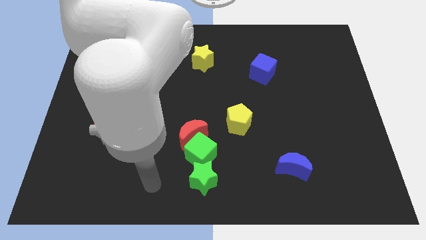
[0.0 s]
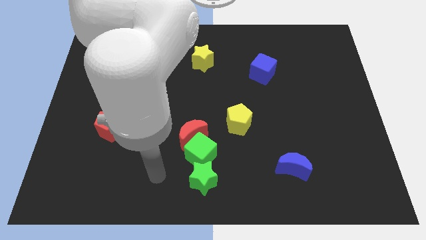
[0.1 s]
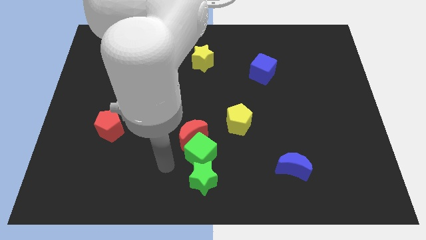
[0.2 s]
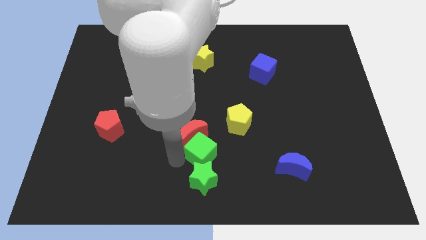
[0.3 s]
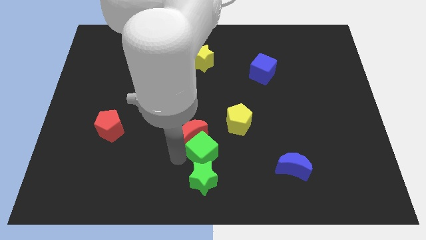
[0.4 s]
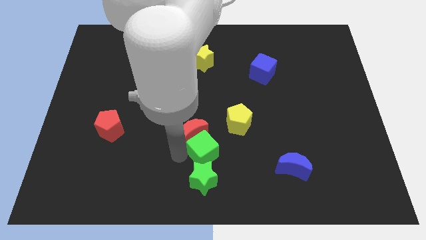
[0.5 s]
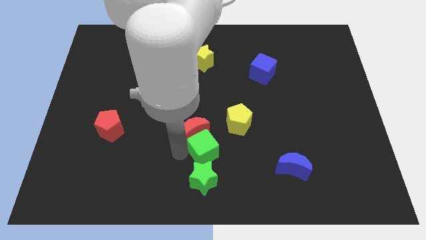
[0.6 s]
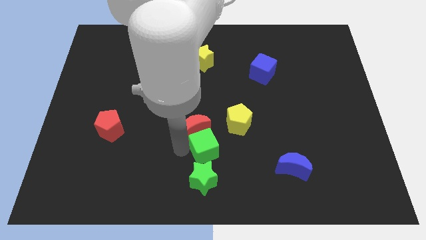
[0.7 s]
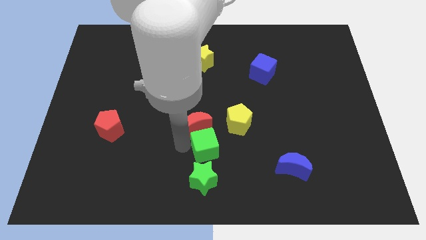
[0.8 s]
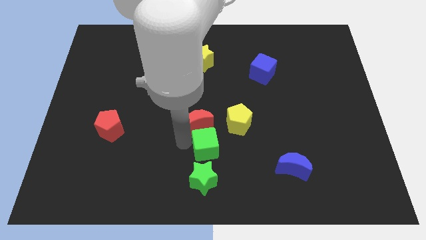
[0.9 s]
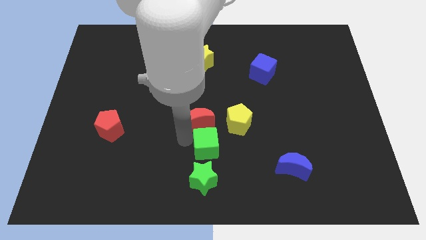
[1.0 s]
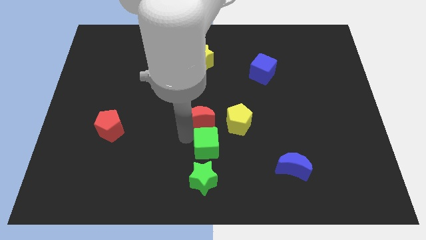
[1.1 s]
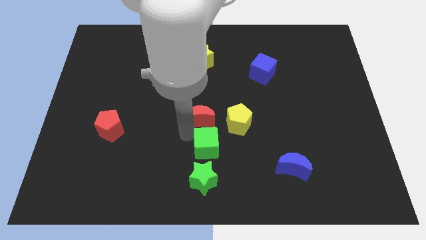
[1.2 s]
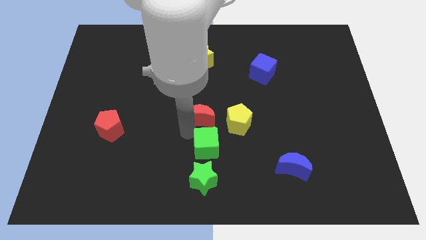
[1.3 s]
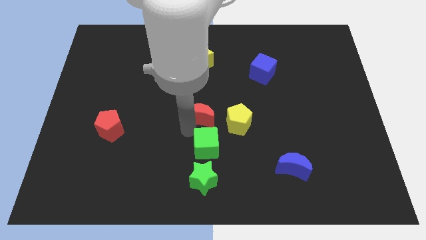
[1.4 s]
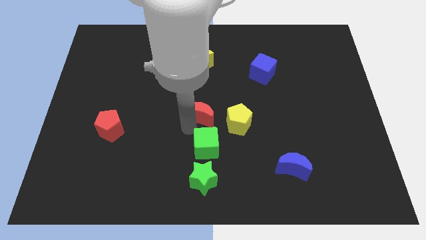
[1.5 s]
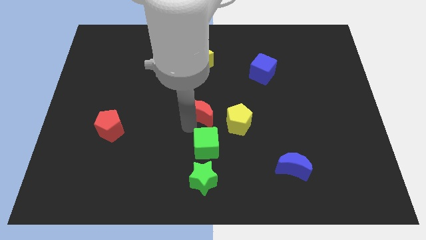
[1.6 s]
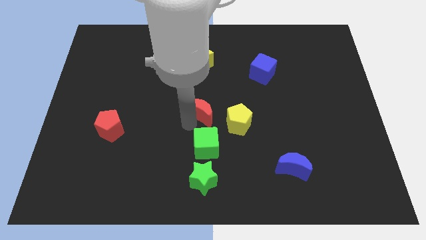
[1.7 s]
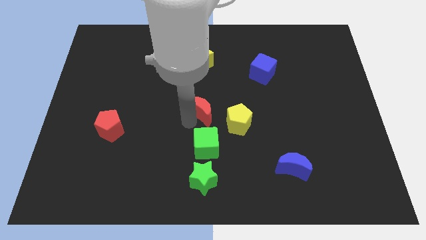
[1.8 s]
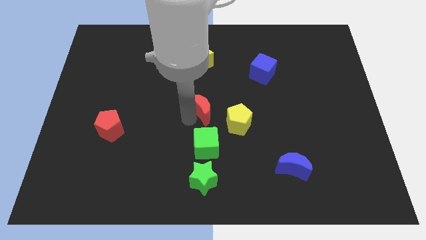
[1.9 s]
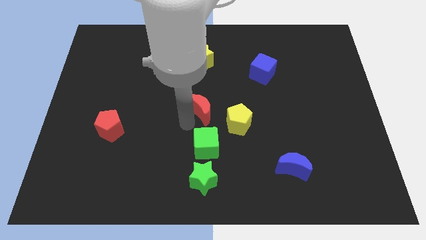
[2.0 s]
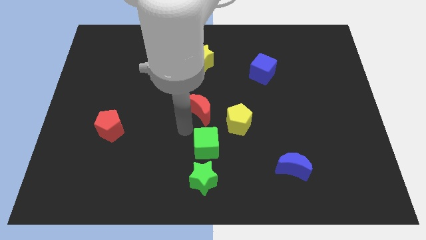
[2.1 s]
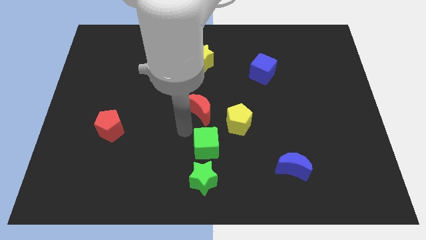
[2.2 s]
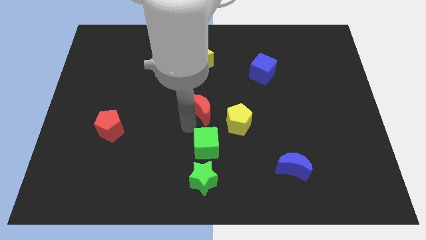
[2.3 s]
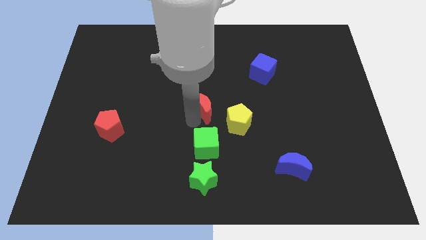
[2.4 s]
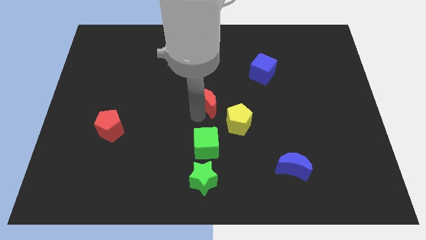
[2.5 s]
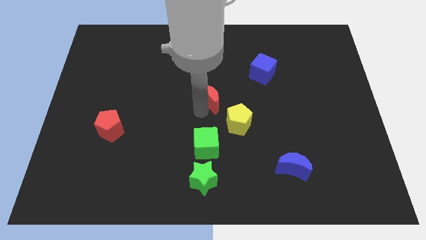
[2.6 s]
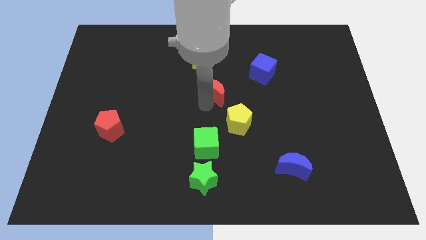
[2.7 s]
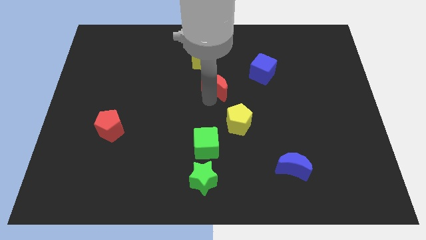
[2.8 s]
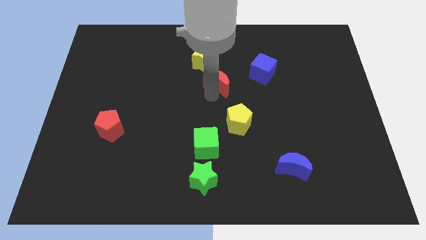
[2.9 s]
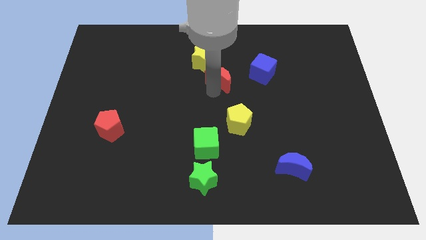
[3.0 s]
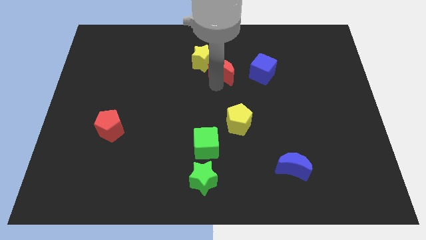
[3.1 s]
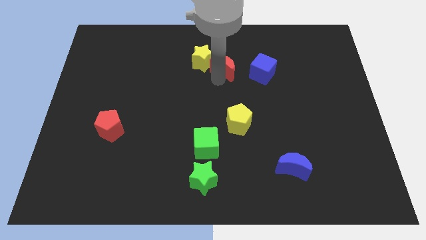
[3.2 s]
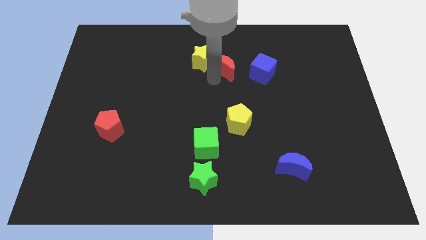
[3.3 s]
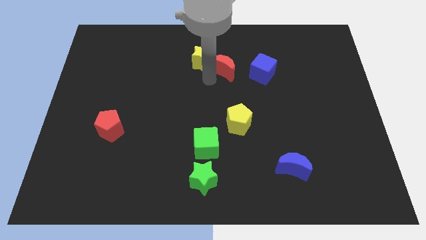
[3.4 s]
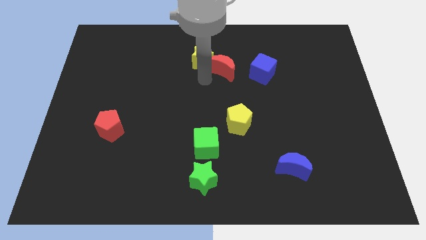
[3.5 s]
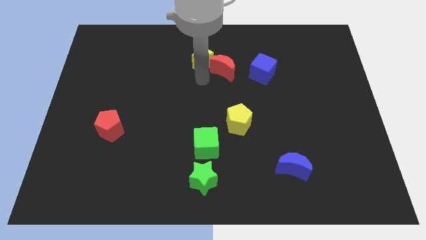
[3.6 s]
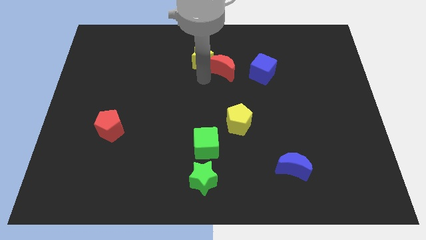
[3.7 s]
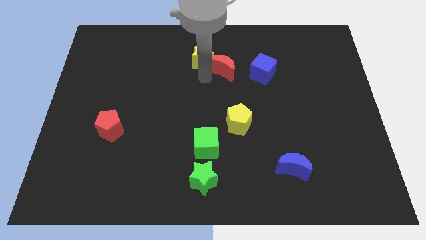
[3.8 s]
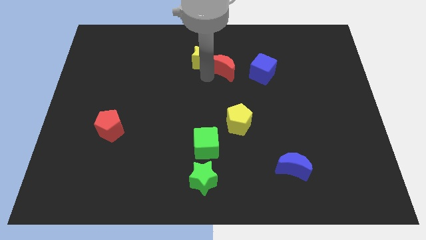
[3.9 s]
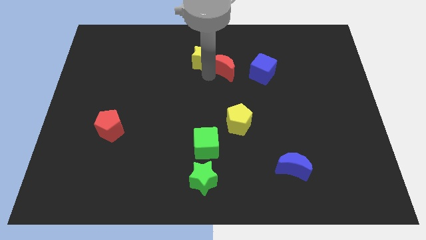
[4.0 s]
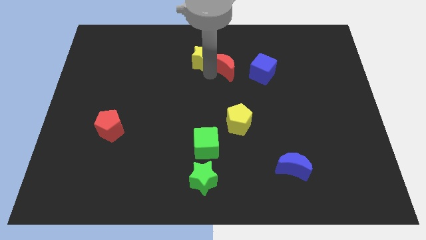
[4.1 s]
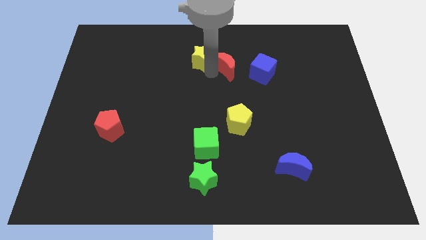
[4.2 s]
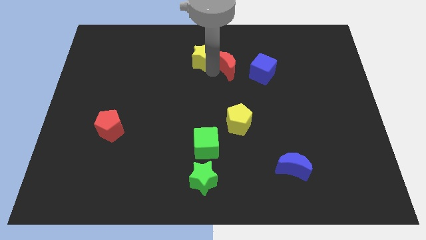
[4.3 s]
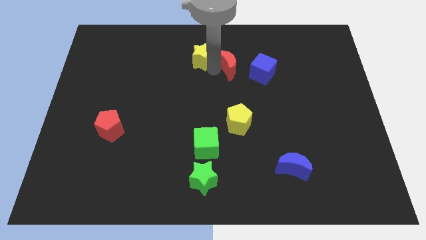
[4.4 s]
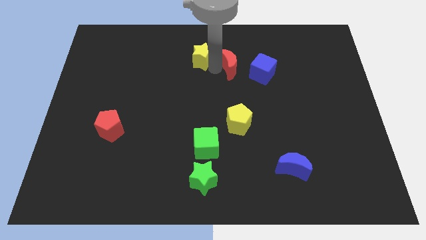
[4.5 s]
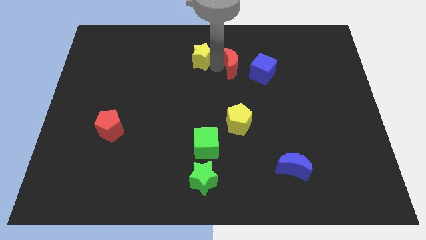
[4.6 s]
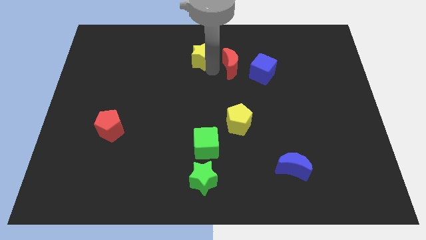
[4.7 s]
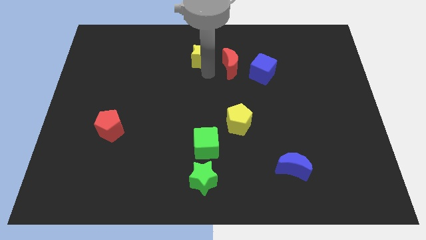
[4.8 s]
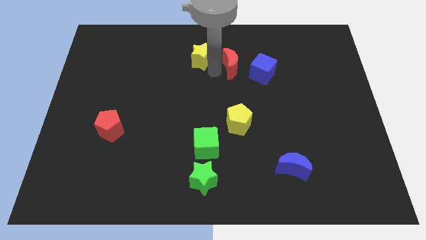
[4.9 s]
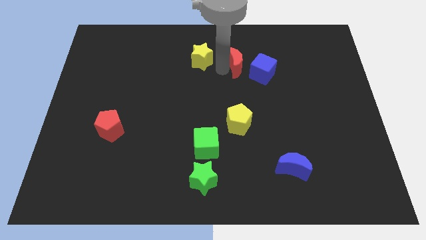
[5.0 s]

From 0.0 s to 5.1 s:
slide the red moon upwards and then right

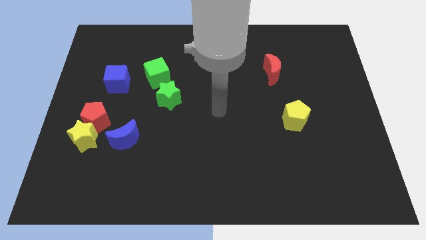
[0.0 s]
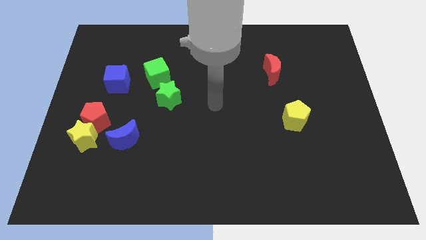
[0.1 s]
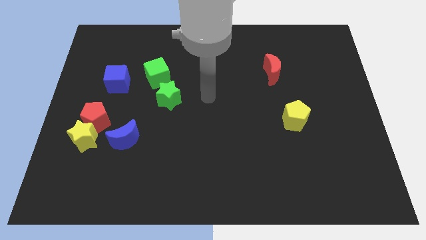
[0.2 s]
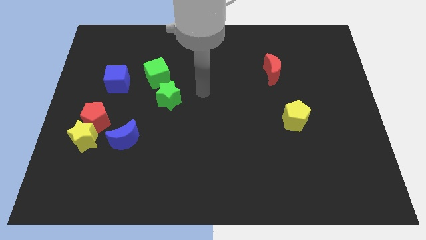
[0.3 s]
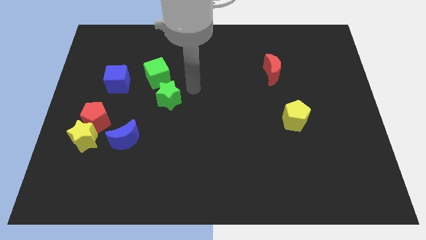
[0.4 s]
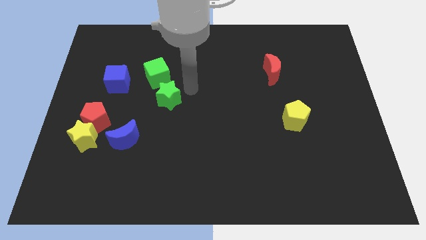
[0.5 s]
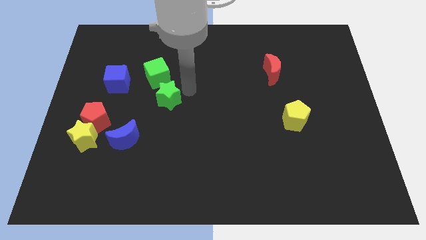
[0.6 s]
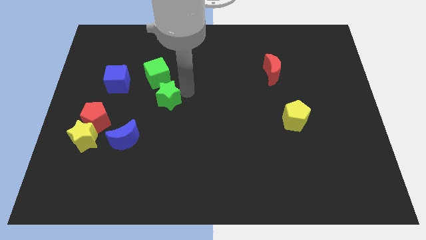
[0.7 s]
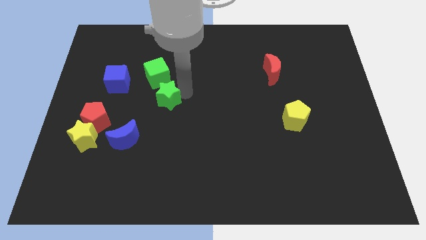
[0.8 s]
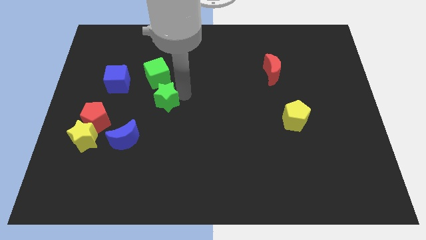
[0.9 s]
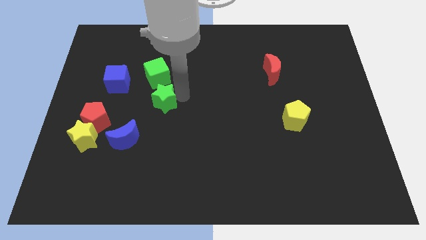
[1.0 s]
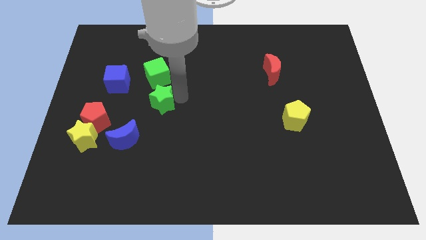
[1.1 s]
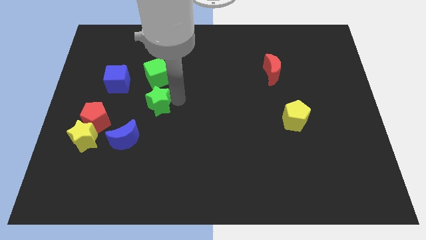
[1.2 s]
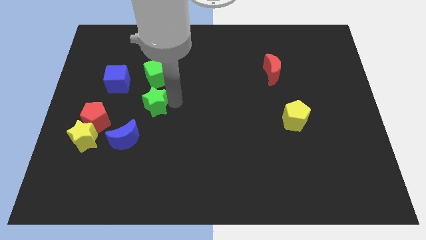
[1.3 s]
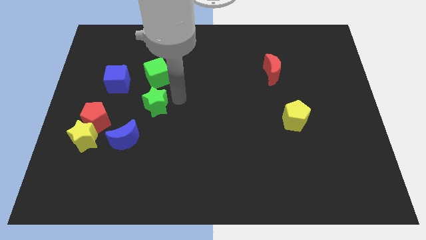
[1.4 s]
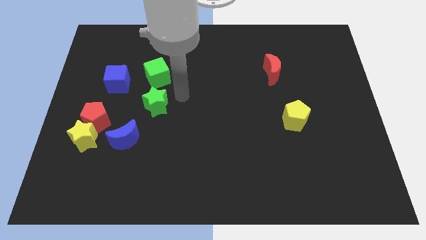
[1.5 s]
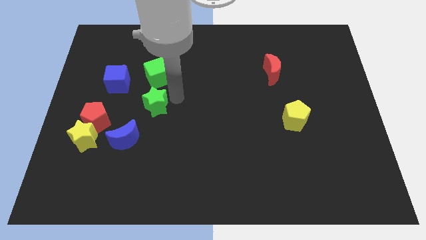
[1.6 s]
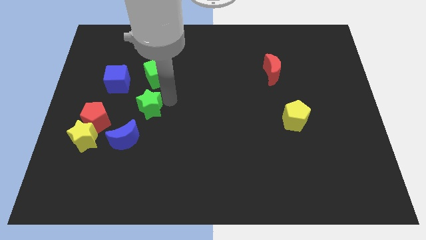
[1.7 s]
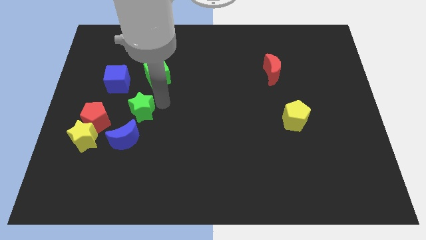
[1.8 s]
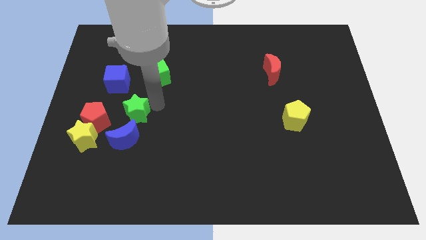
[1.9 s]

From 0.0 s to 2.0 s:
slightly push the green star diagonally downwards and left

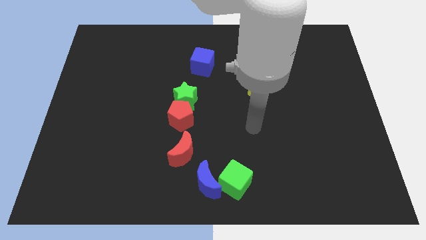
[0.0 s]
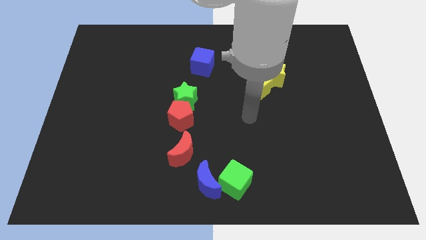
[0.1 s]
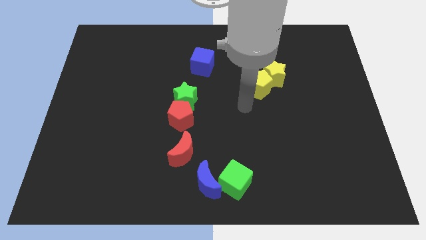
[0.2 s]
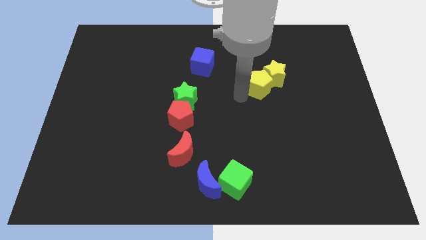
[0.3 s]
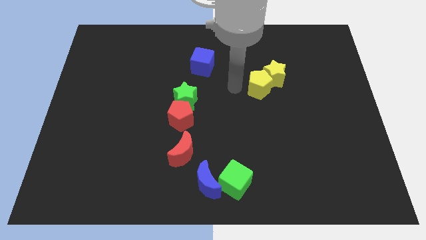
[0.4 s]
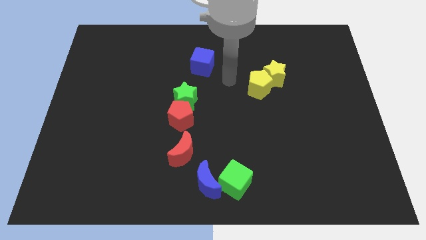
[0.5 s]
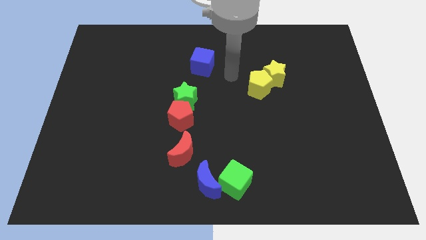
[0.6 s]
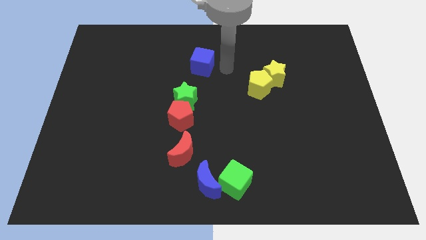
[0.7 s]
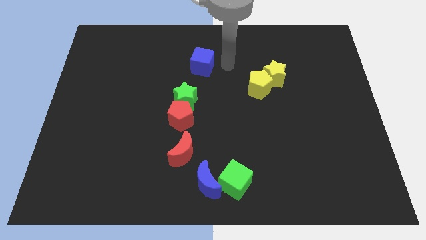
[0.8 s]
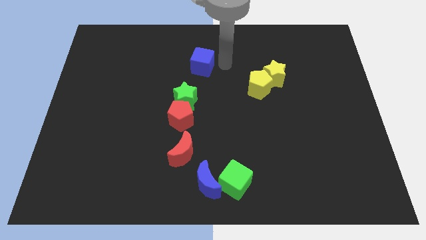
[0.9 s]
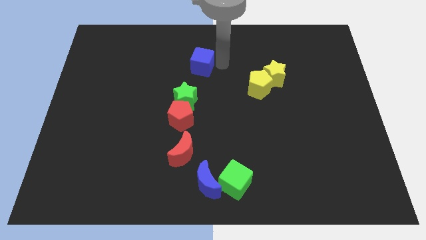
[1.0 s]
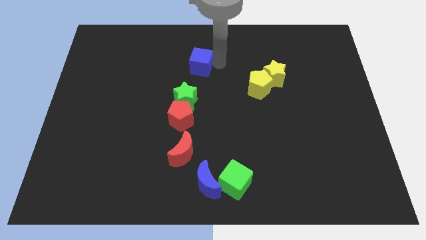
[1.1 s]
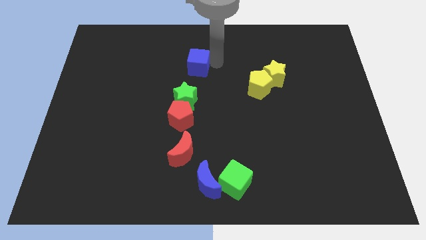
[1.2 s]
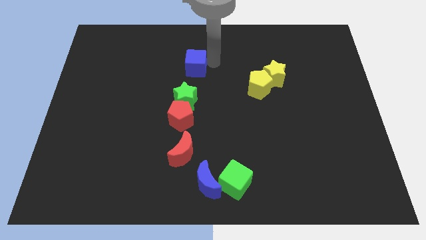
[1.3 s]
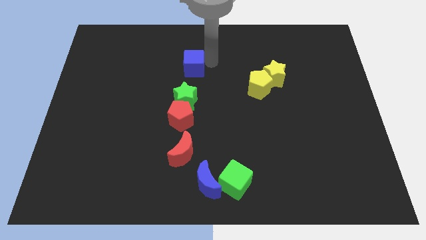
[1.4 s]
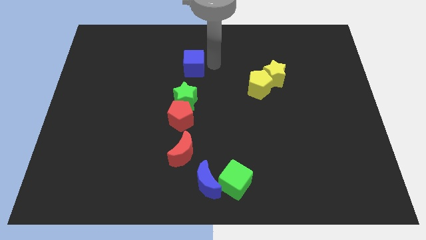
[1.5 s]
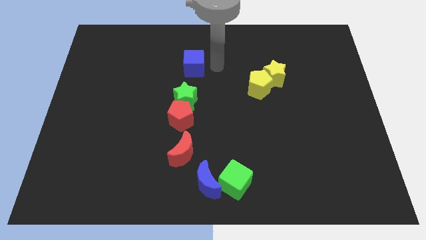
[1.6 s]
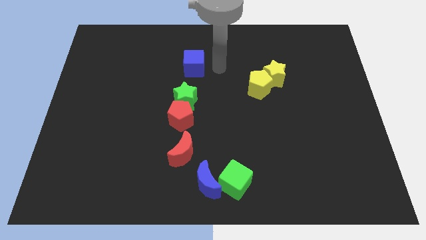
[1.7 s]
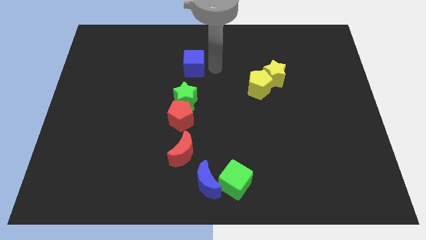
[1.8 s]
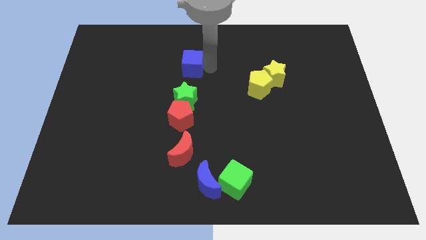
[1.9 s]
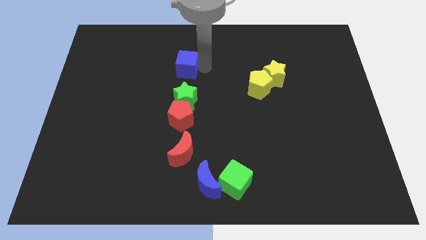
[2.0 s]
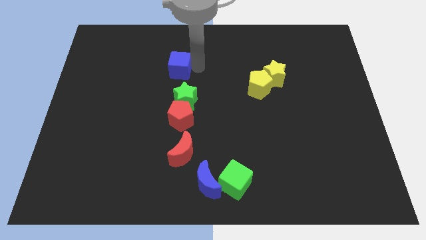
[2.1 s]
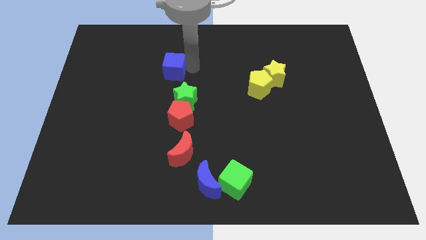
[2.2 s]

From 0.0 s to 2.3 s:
slide the blue cube to the left a little
